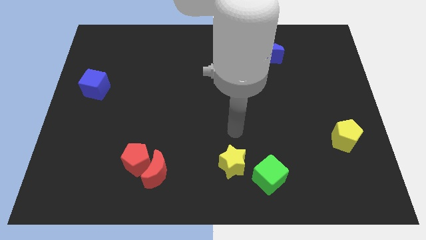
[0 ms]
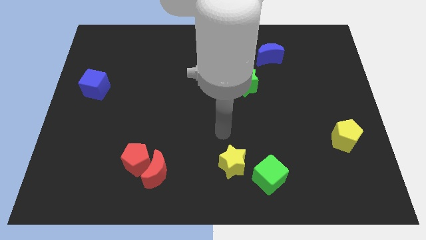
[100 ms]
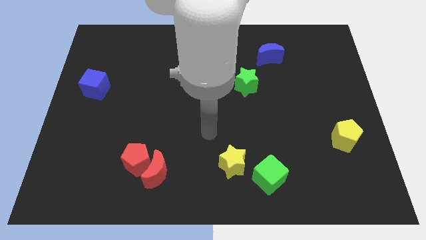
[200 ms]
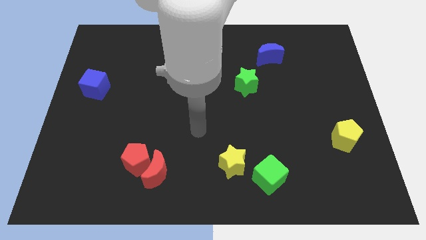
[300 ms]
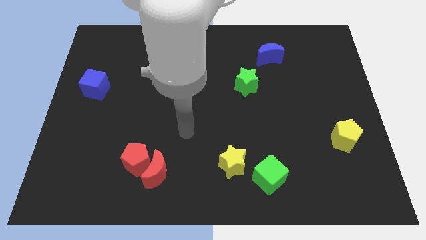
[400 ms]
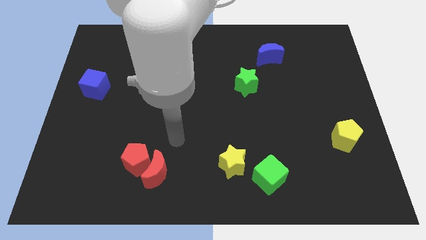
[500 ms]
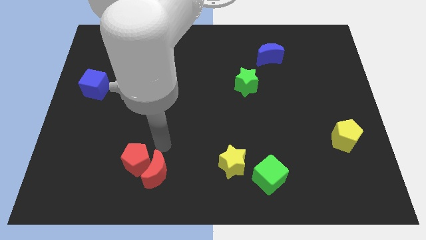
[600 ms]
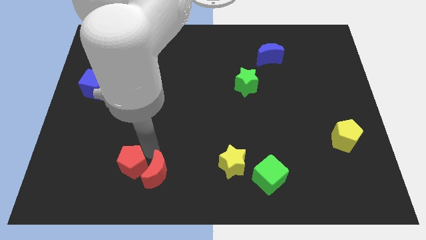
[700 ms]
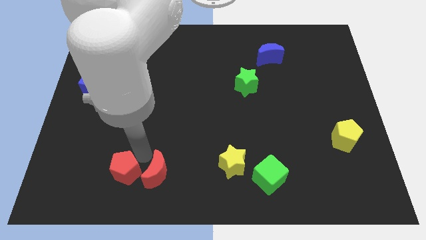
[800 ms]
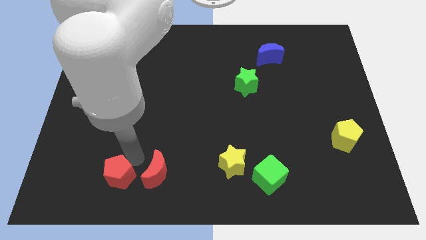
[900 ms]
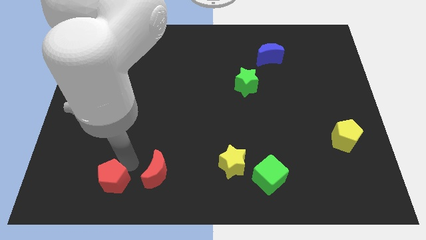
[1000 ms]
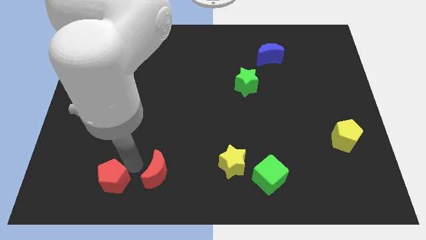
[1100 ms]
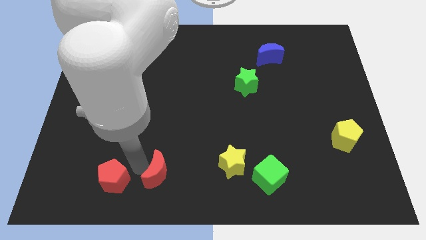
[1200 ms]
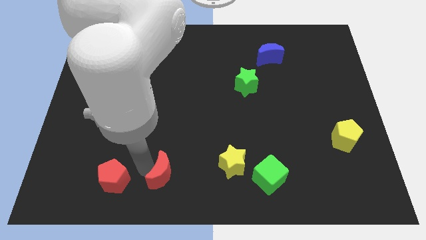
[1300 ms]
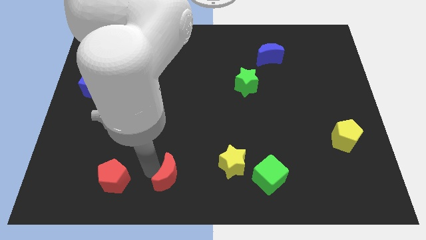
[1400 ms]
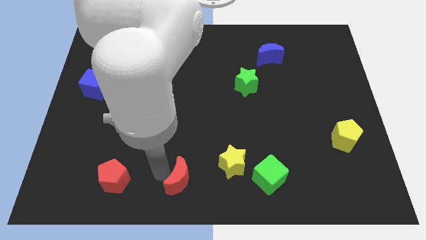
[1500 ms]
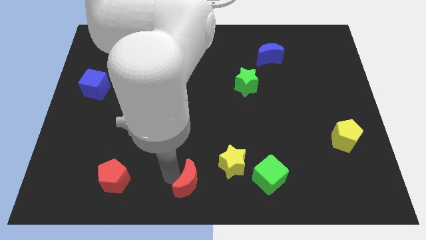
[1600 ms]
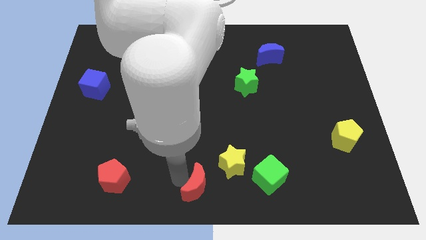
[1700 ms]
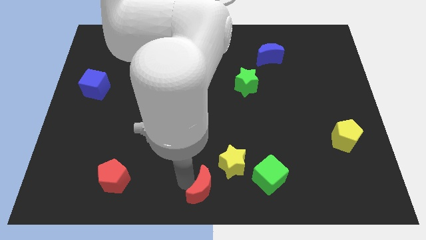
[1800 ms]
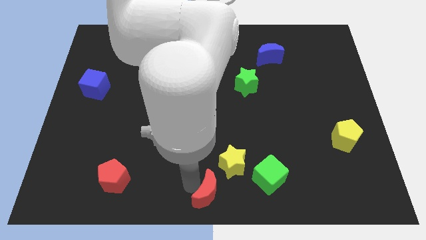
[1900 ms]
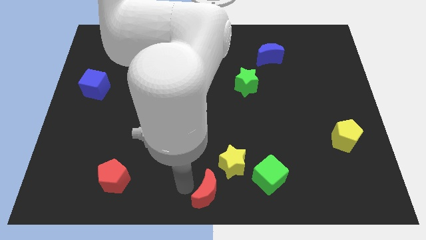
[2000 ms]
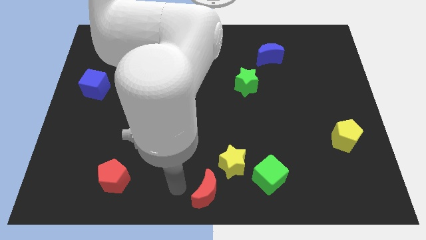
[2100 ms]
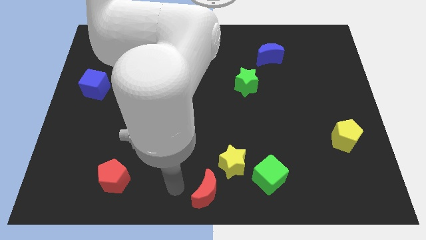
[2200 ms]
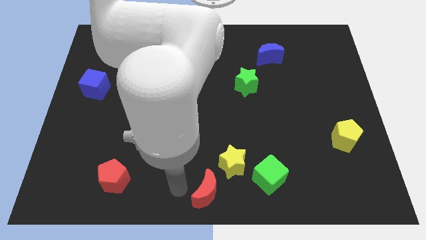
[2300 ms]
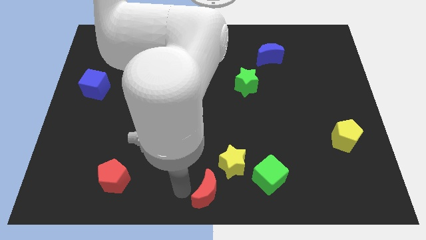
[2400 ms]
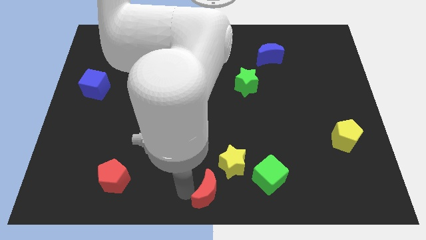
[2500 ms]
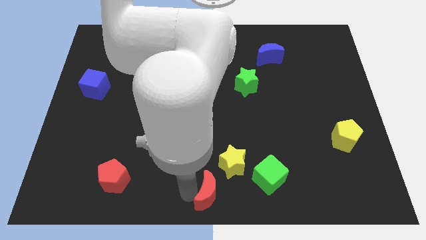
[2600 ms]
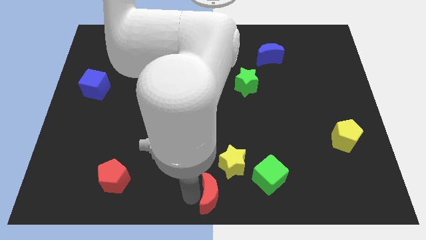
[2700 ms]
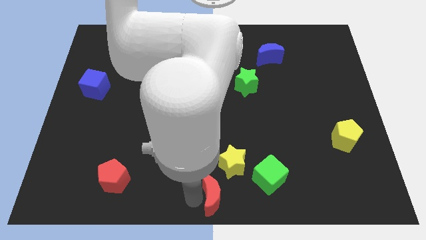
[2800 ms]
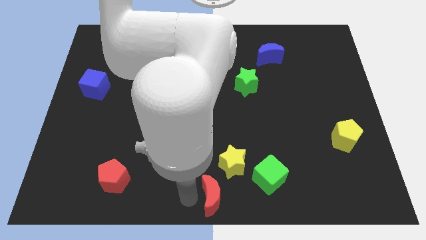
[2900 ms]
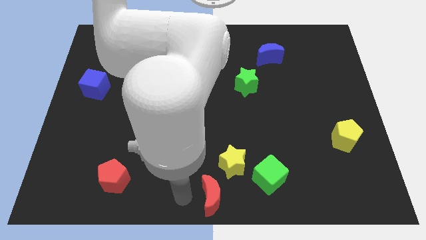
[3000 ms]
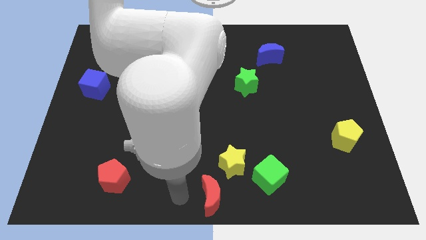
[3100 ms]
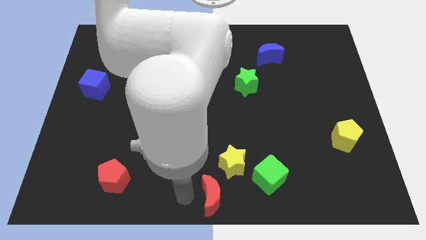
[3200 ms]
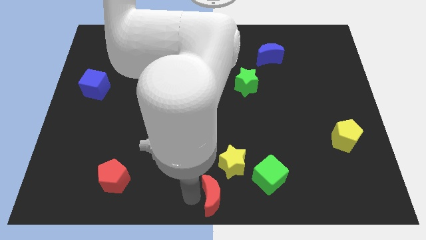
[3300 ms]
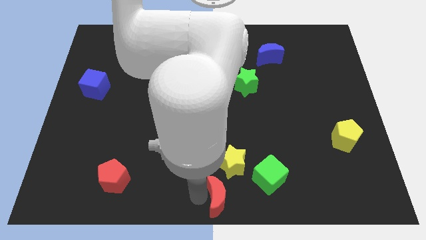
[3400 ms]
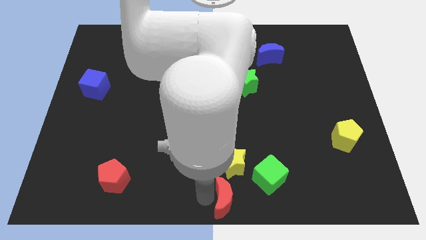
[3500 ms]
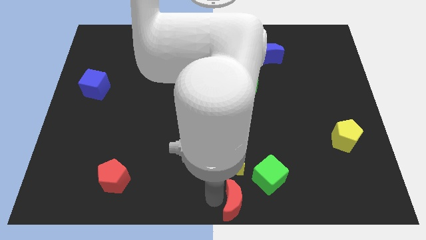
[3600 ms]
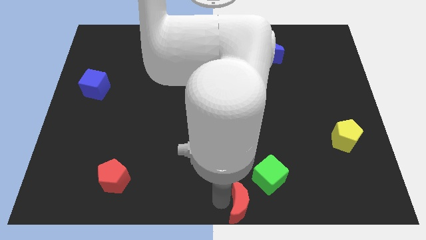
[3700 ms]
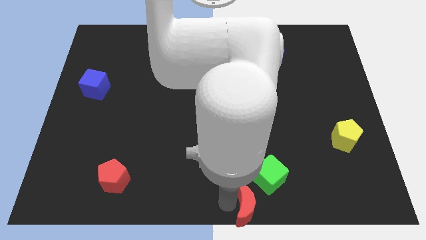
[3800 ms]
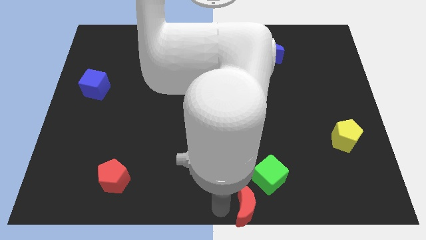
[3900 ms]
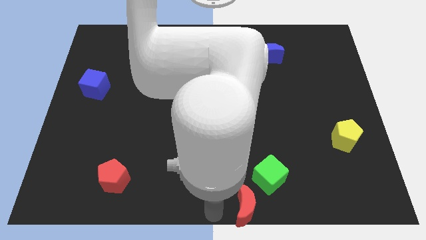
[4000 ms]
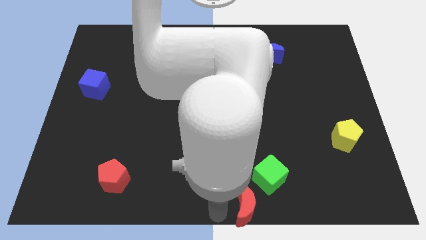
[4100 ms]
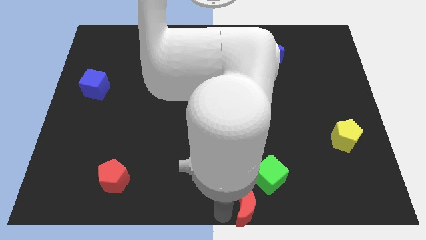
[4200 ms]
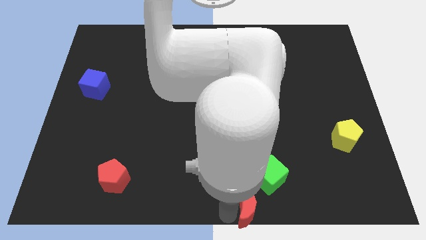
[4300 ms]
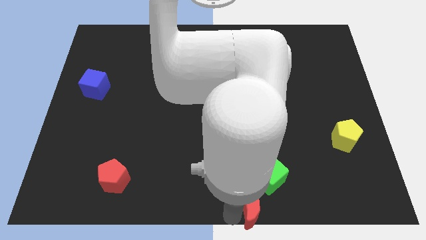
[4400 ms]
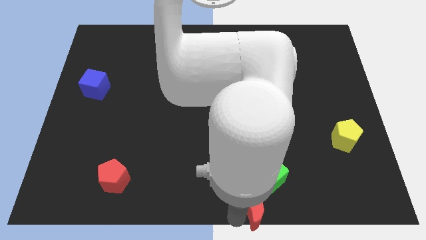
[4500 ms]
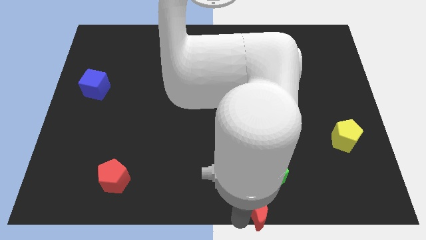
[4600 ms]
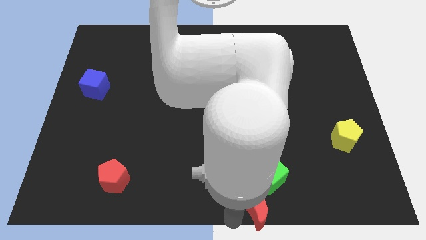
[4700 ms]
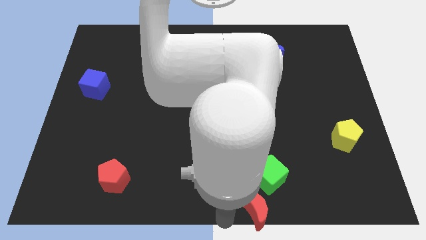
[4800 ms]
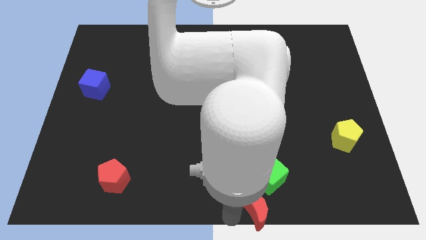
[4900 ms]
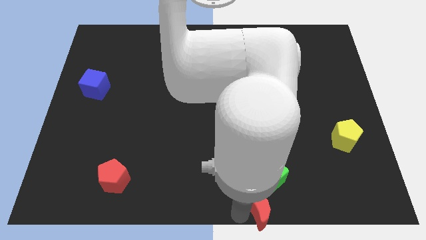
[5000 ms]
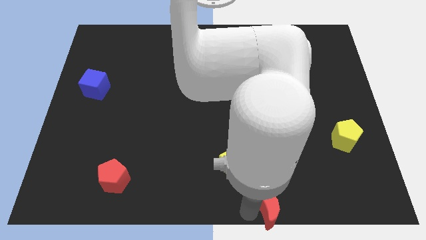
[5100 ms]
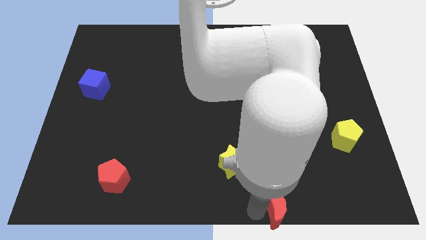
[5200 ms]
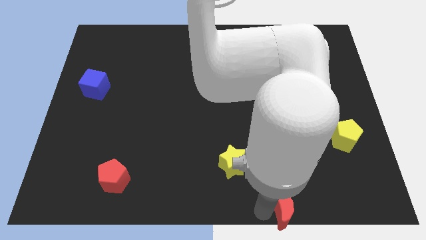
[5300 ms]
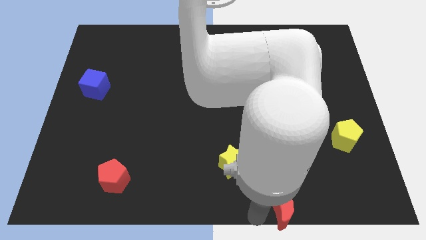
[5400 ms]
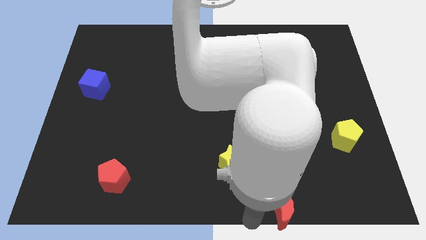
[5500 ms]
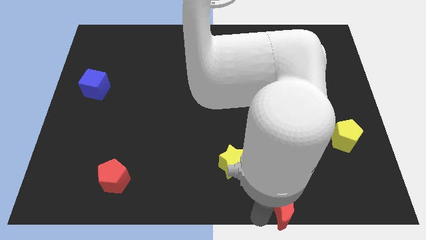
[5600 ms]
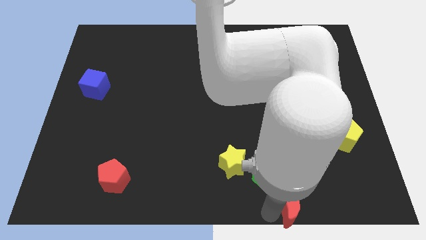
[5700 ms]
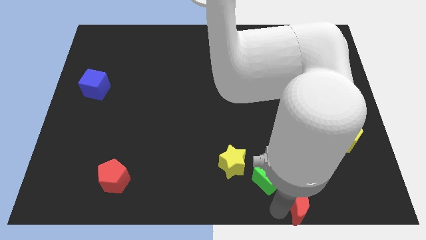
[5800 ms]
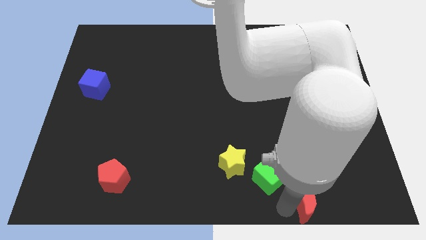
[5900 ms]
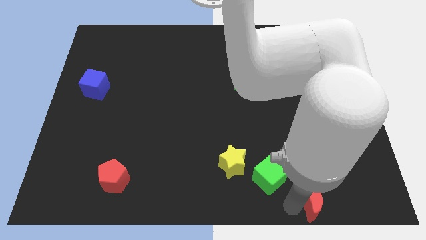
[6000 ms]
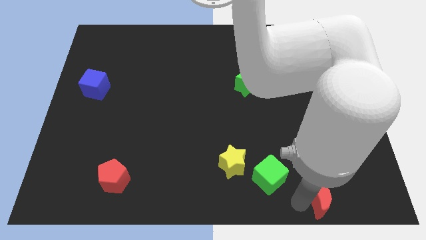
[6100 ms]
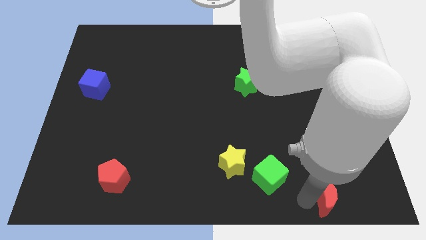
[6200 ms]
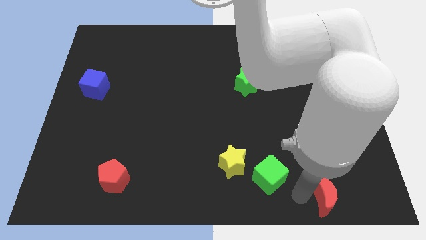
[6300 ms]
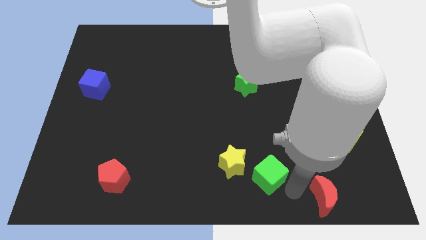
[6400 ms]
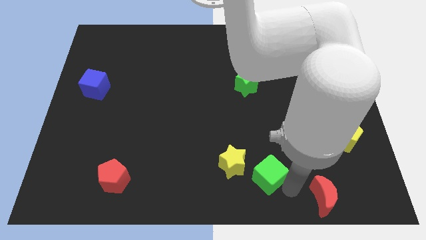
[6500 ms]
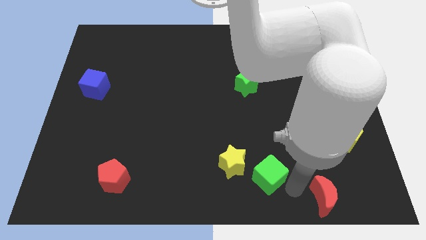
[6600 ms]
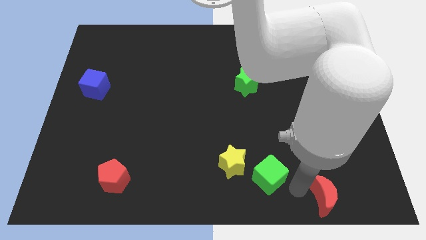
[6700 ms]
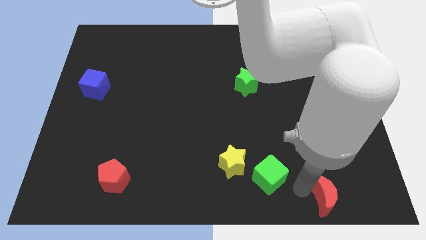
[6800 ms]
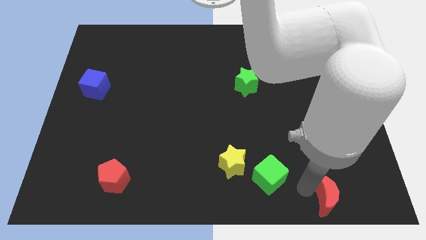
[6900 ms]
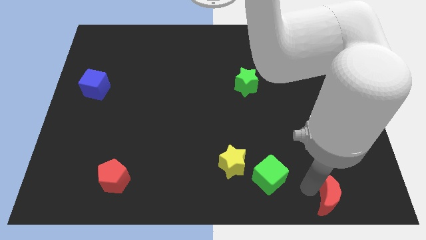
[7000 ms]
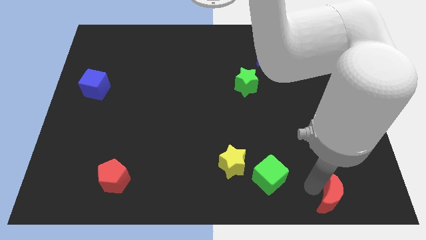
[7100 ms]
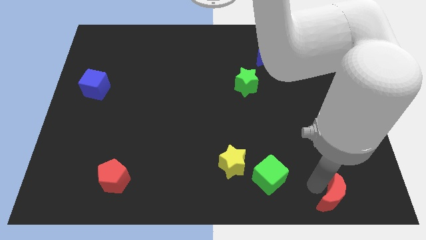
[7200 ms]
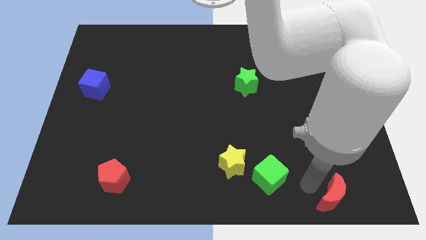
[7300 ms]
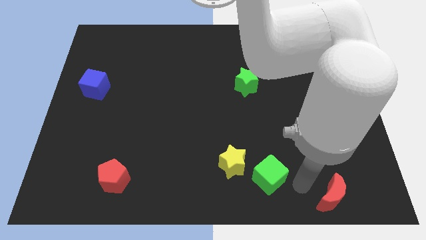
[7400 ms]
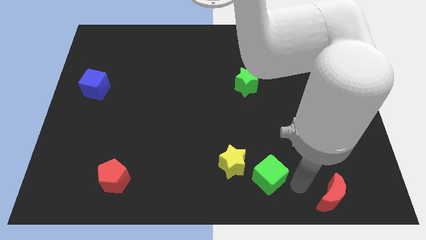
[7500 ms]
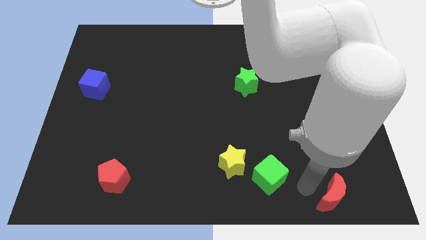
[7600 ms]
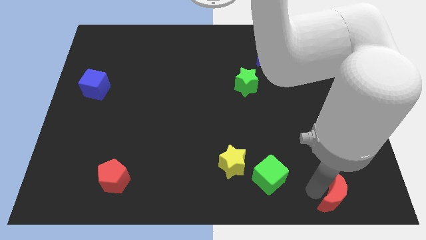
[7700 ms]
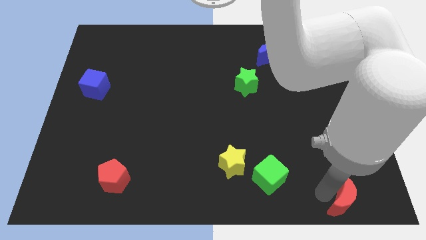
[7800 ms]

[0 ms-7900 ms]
move the red moon to the lower right corner
